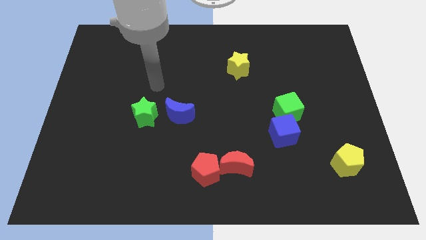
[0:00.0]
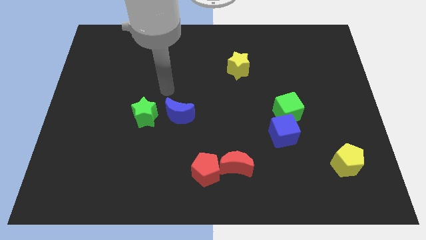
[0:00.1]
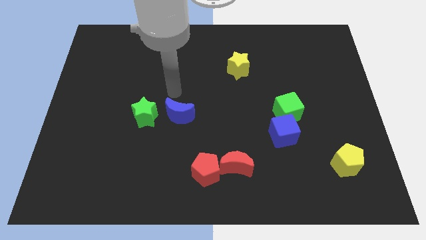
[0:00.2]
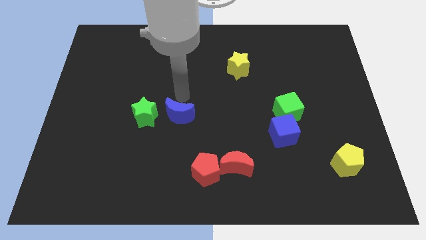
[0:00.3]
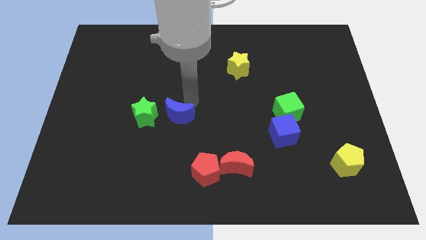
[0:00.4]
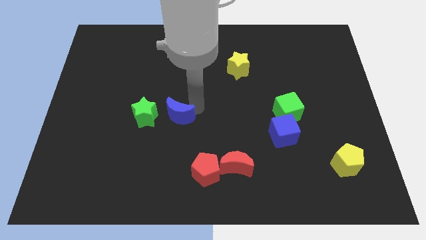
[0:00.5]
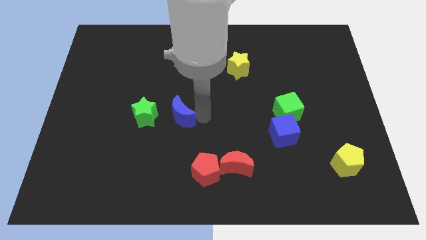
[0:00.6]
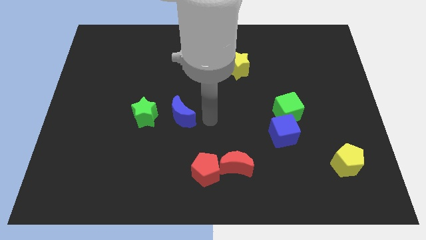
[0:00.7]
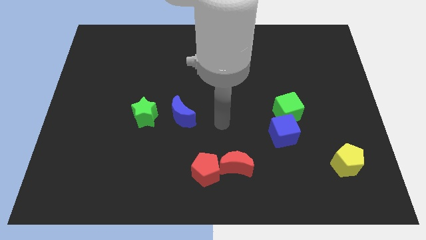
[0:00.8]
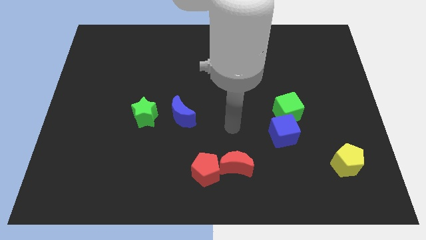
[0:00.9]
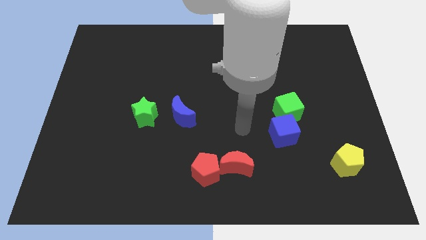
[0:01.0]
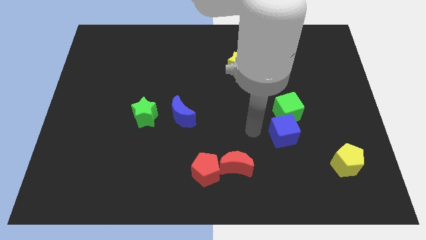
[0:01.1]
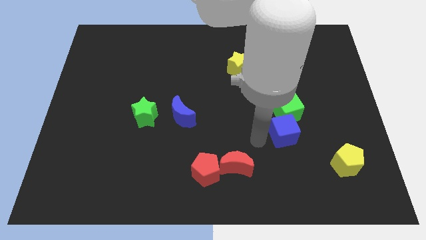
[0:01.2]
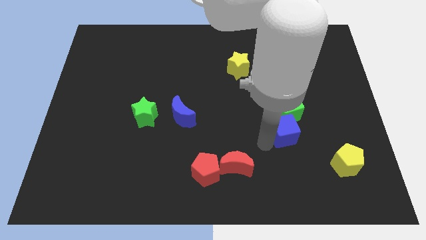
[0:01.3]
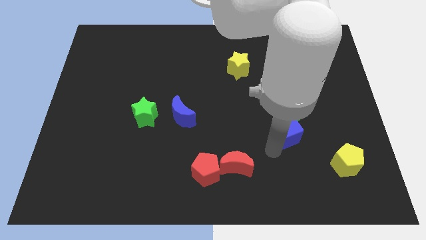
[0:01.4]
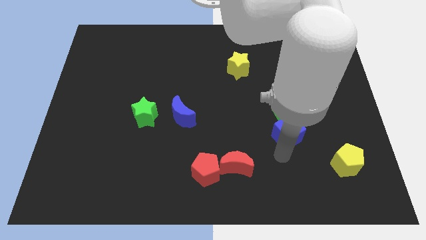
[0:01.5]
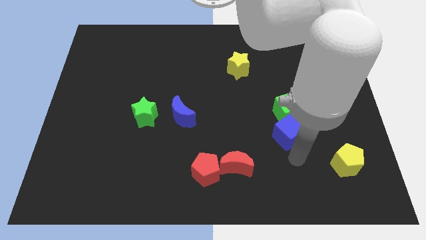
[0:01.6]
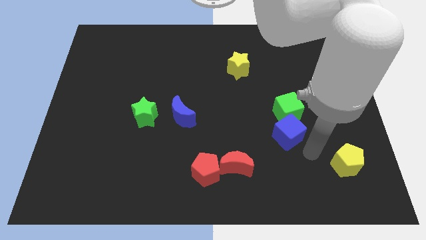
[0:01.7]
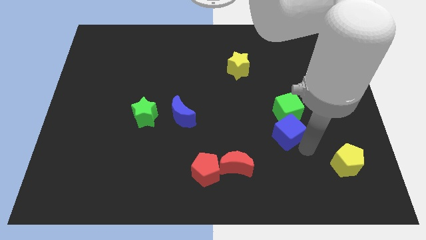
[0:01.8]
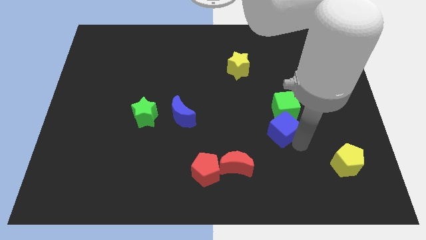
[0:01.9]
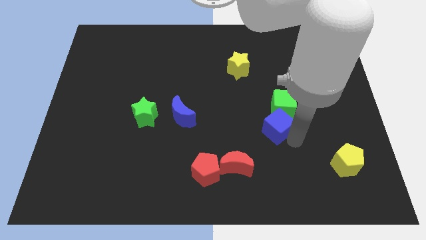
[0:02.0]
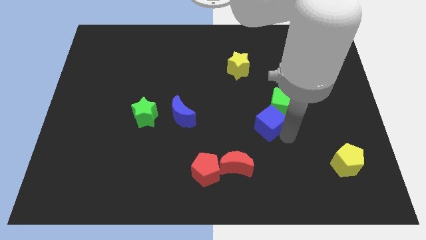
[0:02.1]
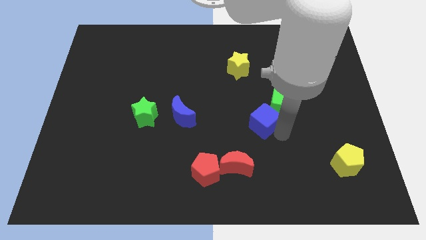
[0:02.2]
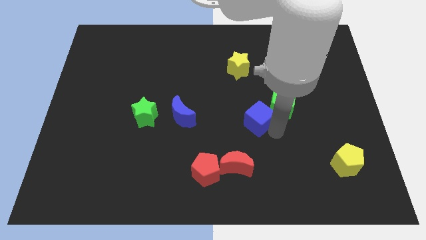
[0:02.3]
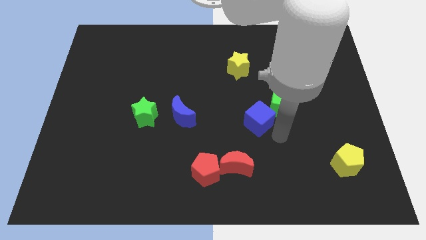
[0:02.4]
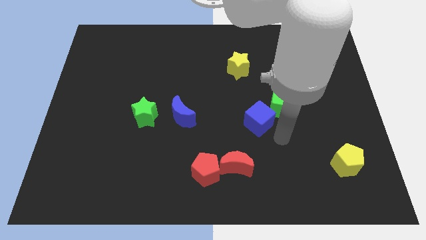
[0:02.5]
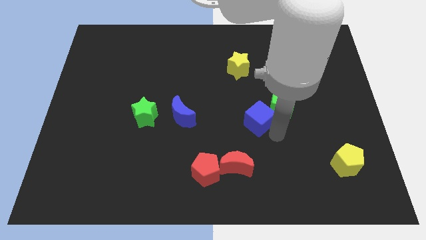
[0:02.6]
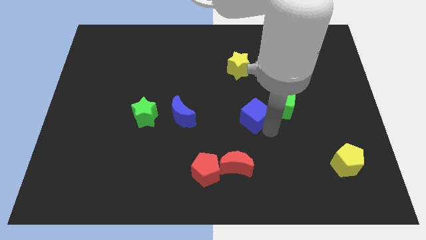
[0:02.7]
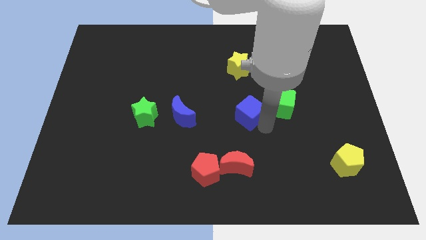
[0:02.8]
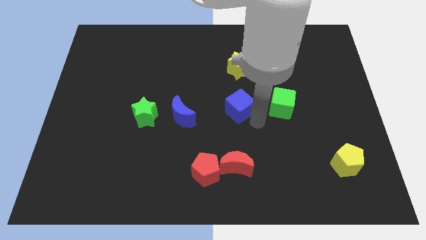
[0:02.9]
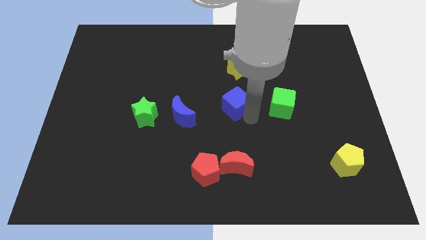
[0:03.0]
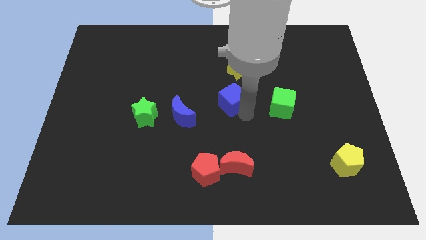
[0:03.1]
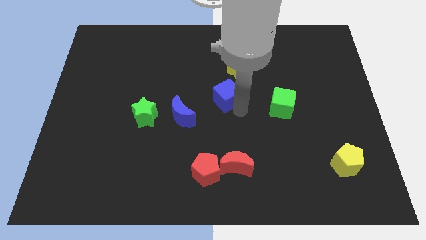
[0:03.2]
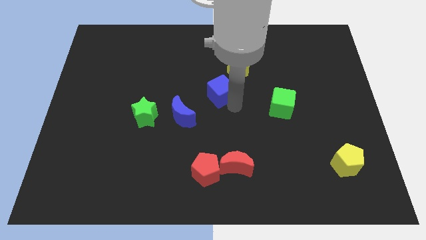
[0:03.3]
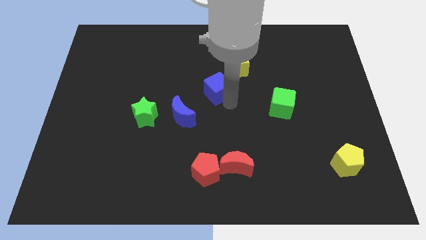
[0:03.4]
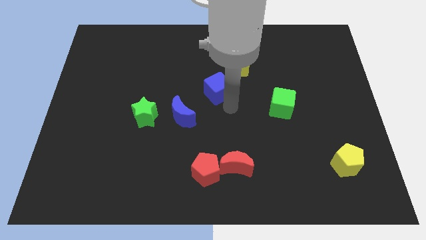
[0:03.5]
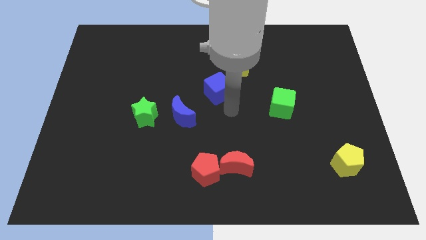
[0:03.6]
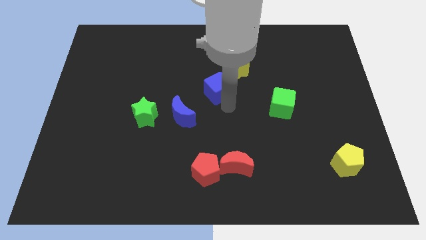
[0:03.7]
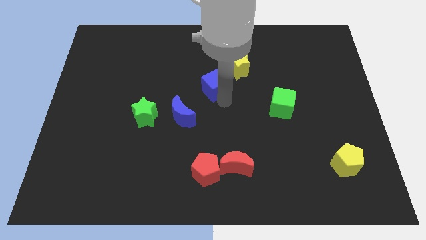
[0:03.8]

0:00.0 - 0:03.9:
push the blue cube up and to the left

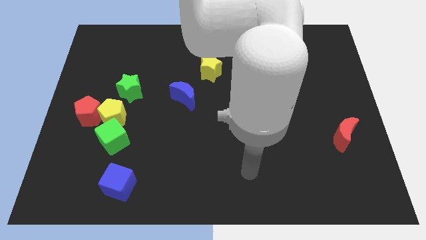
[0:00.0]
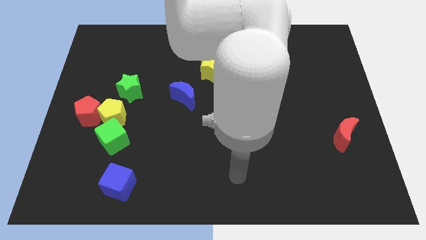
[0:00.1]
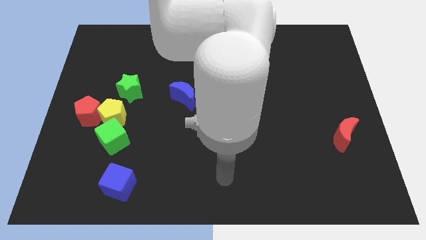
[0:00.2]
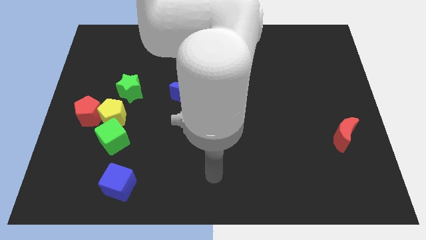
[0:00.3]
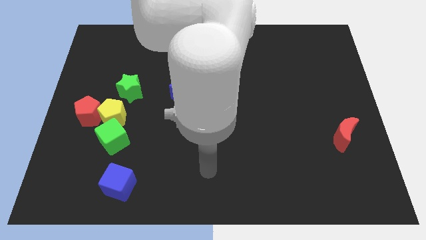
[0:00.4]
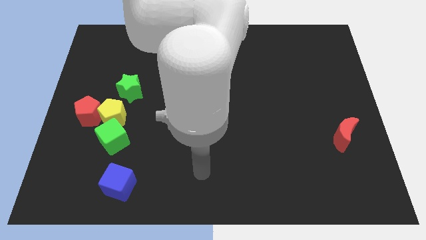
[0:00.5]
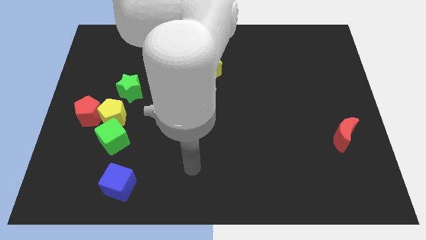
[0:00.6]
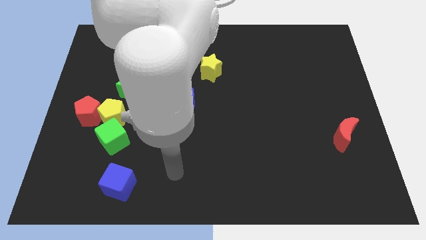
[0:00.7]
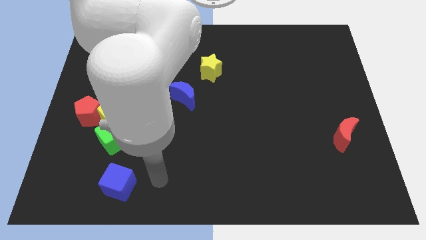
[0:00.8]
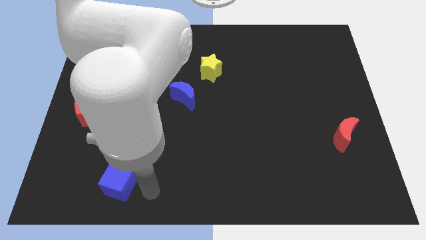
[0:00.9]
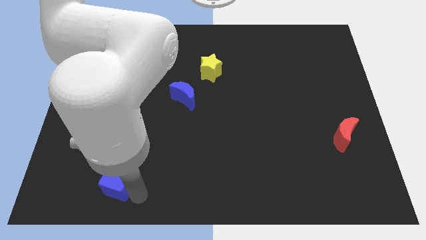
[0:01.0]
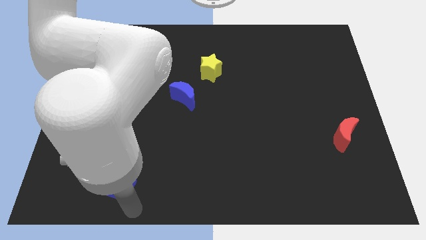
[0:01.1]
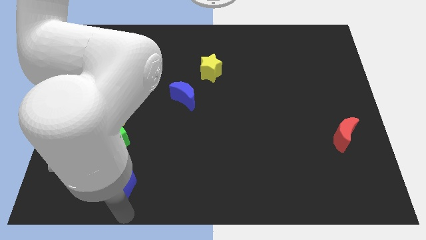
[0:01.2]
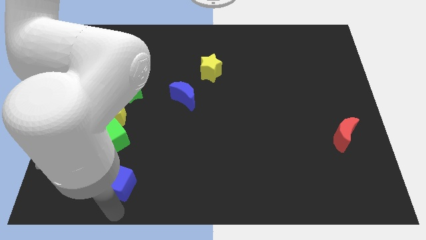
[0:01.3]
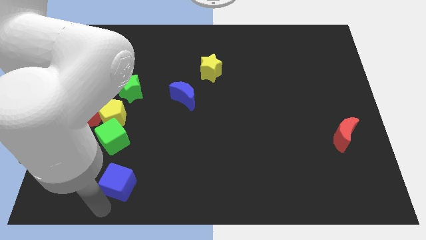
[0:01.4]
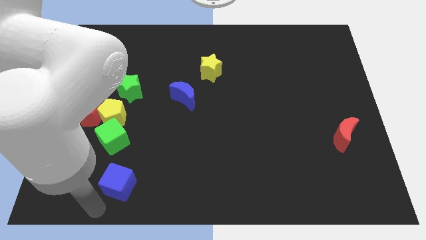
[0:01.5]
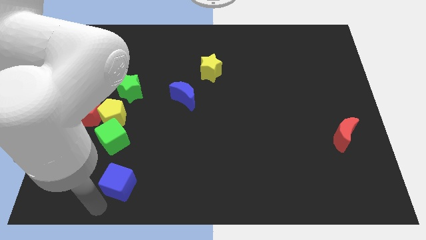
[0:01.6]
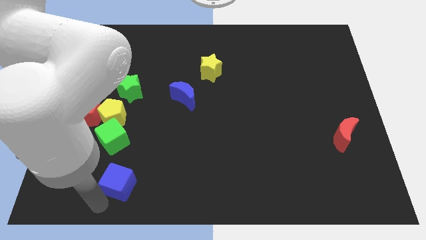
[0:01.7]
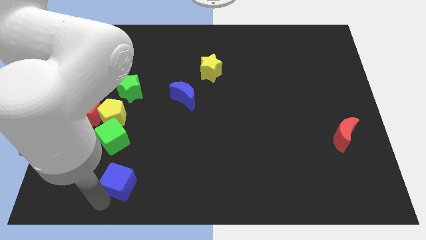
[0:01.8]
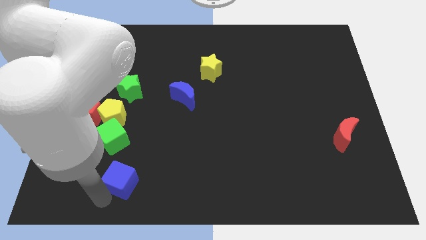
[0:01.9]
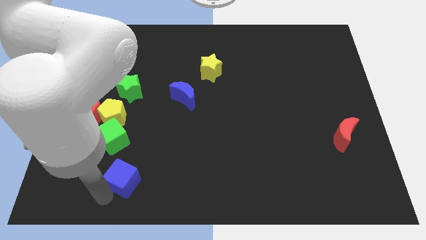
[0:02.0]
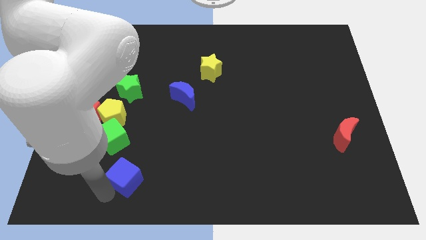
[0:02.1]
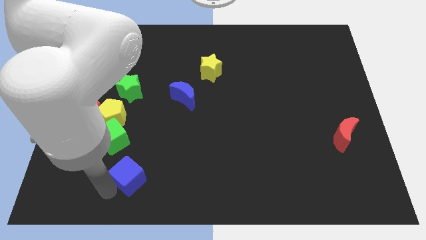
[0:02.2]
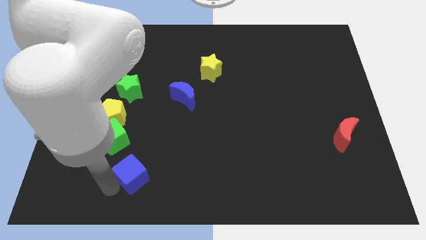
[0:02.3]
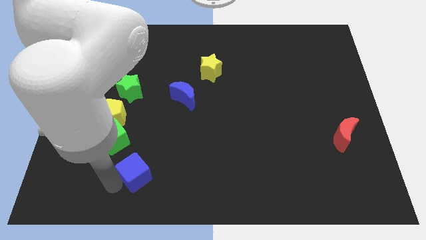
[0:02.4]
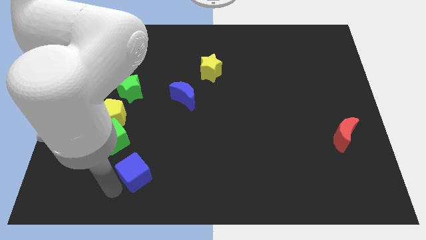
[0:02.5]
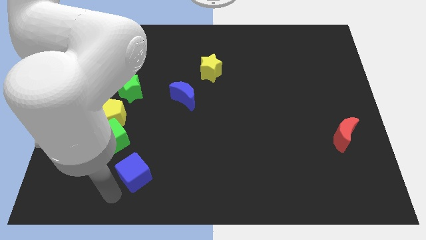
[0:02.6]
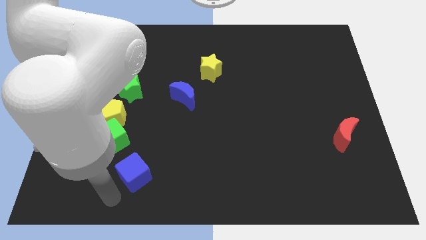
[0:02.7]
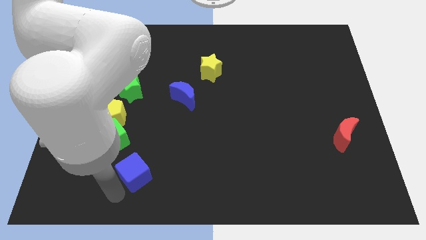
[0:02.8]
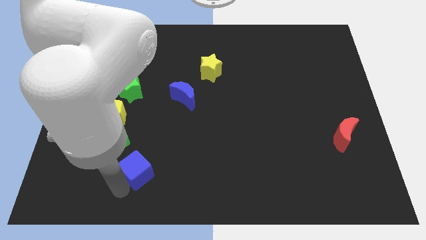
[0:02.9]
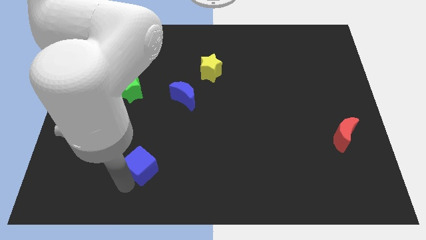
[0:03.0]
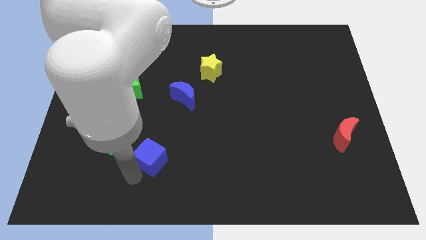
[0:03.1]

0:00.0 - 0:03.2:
slightly push the blue cube diagonally up and right

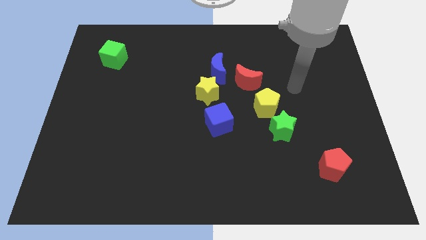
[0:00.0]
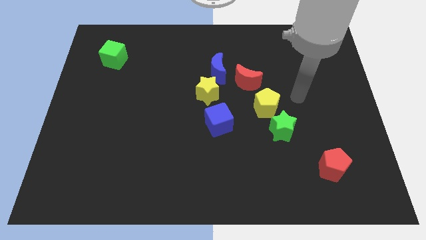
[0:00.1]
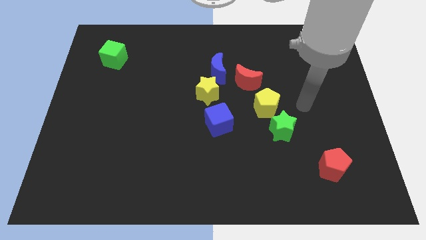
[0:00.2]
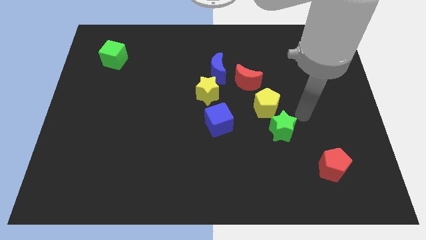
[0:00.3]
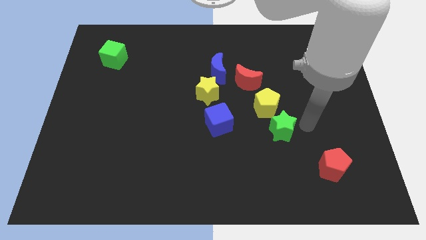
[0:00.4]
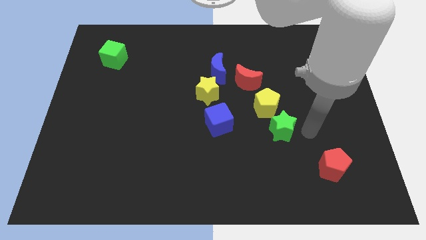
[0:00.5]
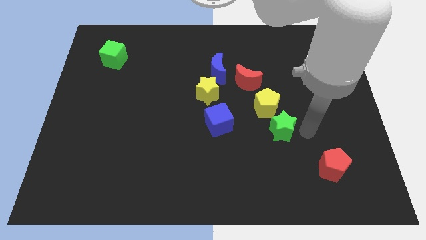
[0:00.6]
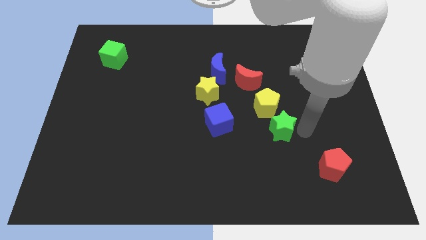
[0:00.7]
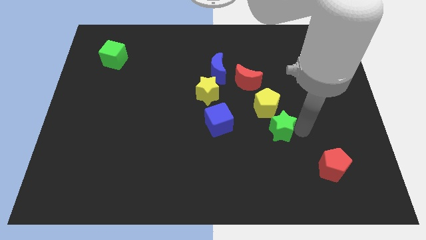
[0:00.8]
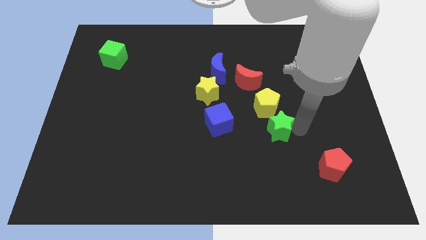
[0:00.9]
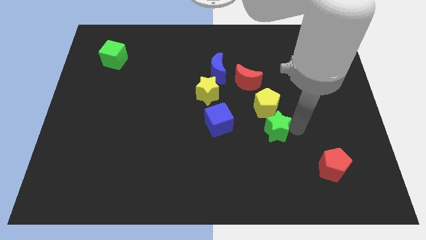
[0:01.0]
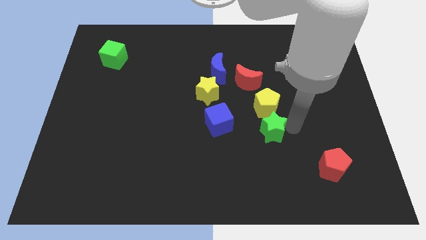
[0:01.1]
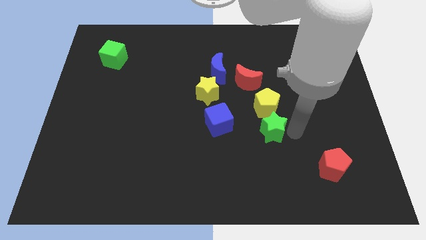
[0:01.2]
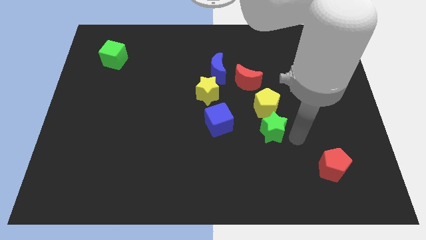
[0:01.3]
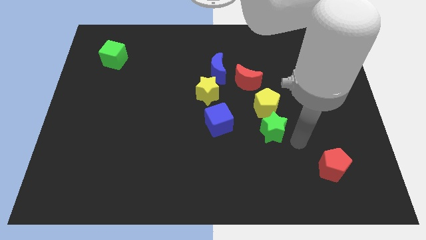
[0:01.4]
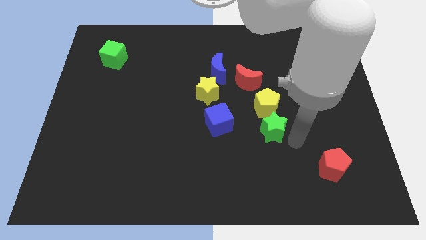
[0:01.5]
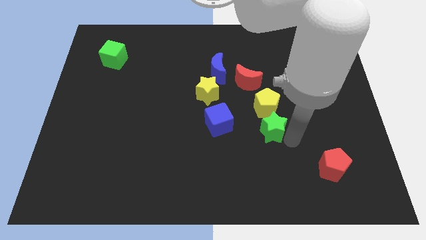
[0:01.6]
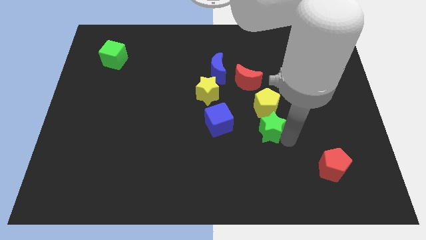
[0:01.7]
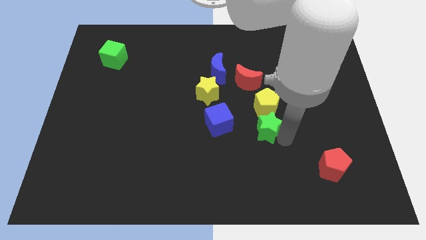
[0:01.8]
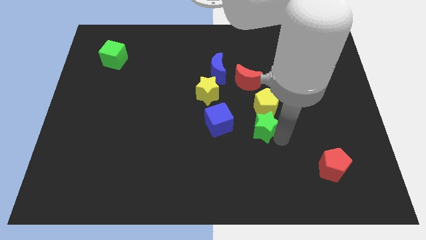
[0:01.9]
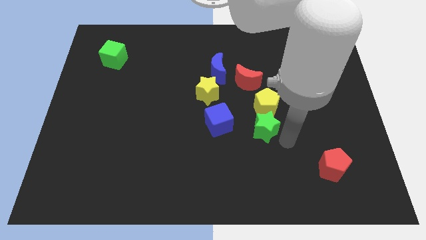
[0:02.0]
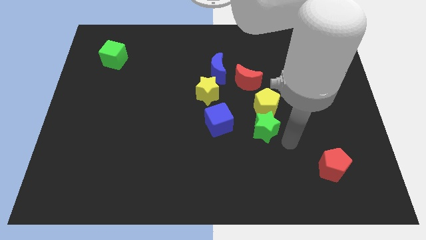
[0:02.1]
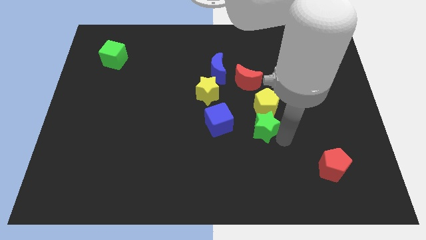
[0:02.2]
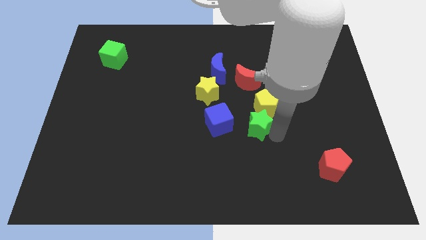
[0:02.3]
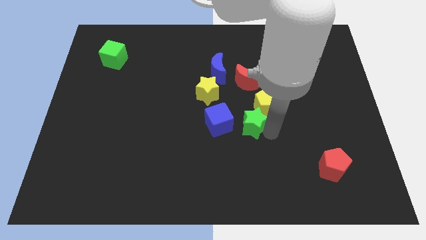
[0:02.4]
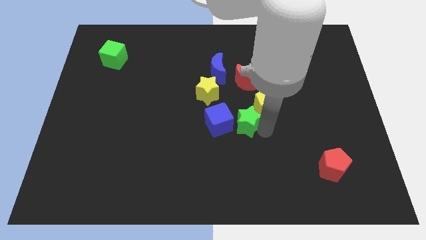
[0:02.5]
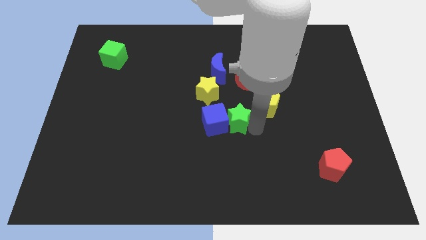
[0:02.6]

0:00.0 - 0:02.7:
slightly move the green star upwards and left diagonally
